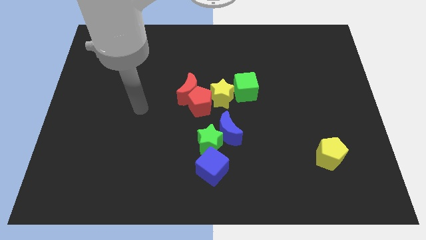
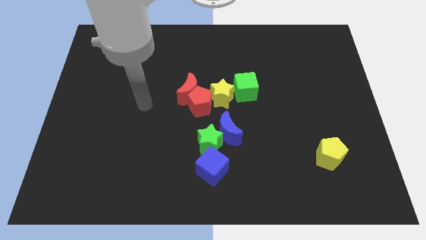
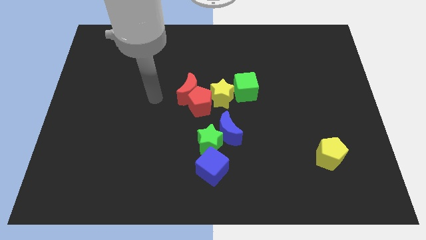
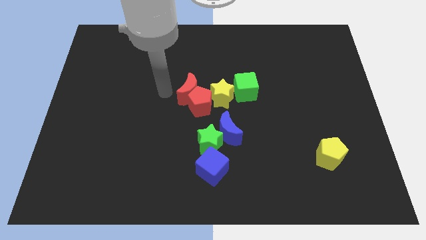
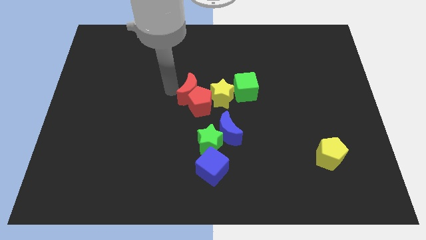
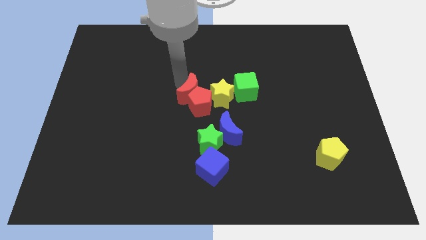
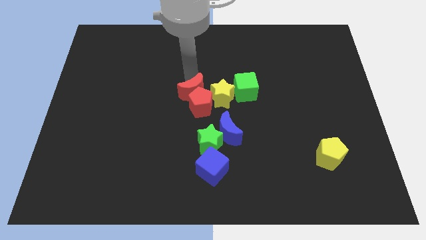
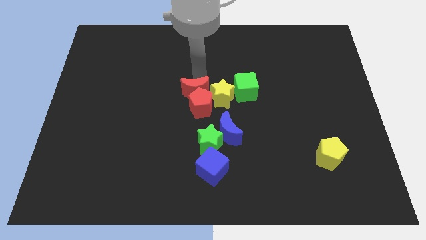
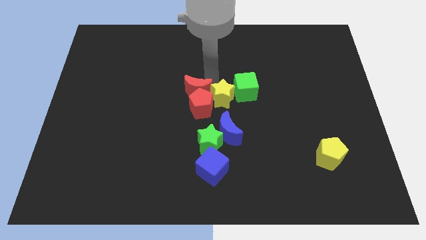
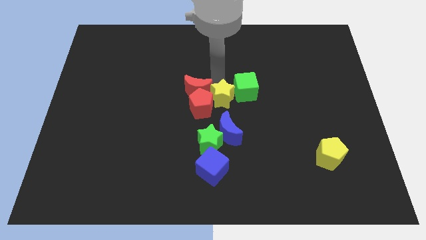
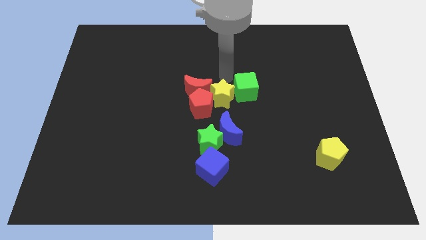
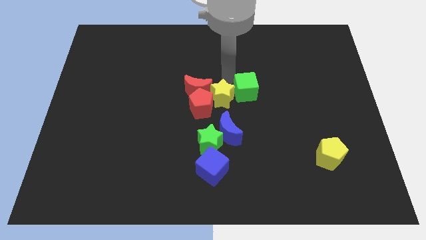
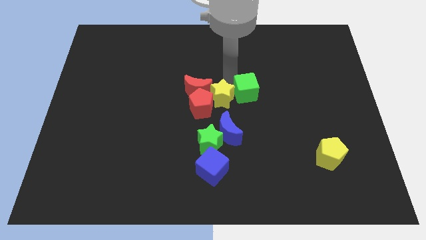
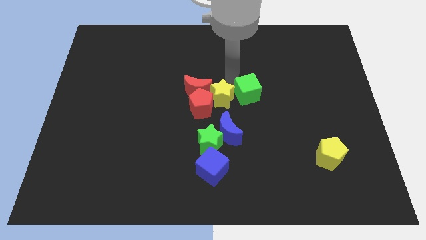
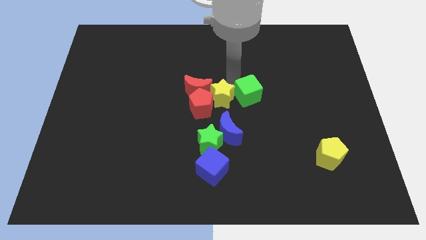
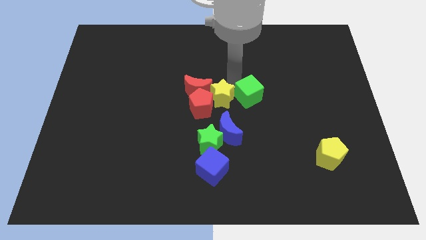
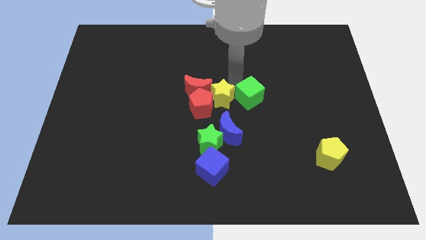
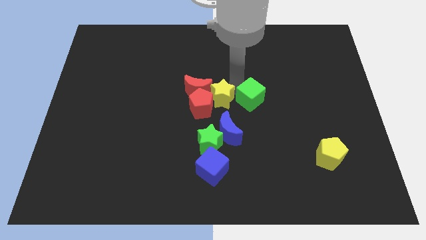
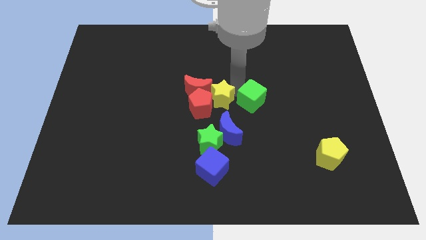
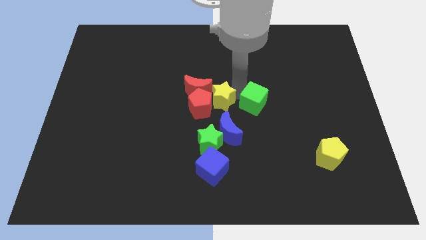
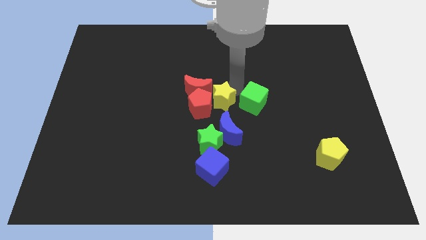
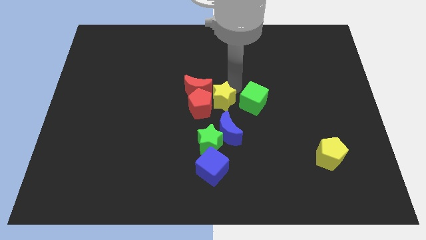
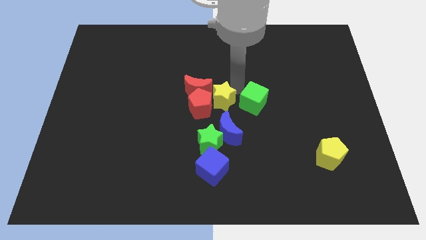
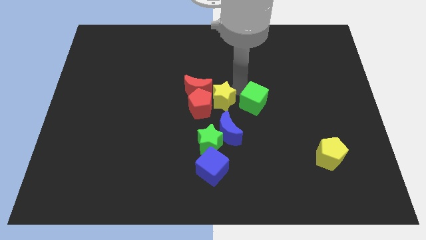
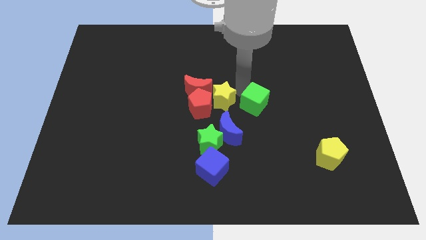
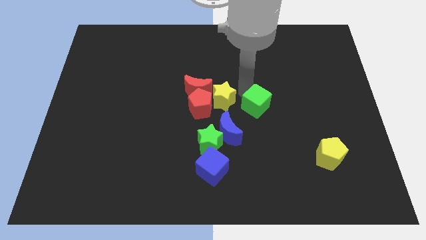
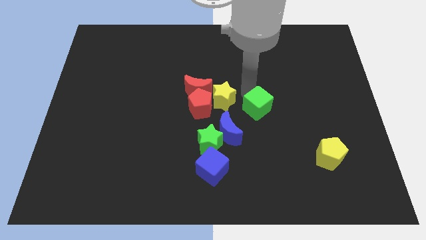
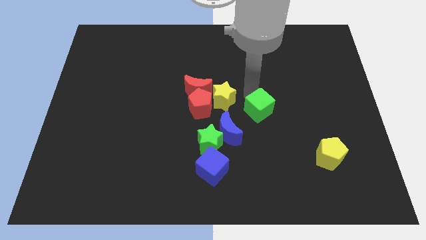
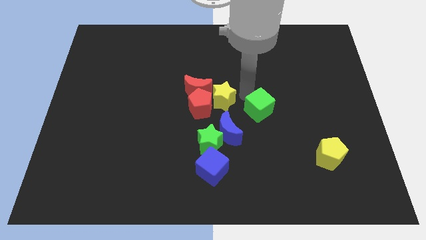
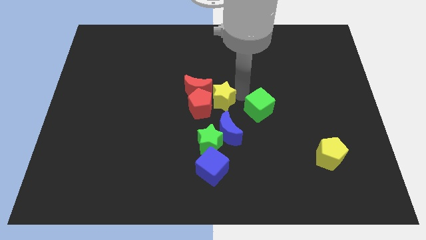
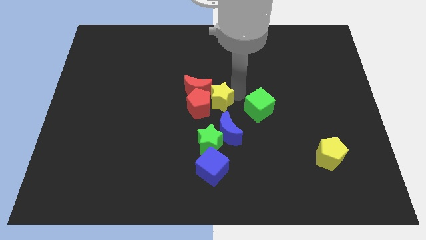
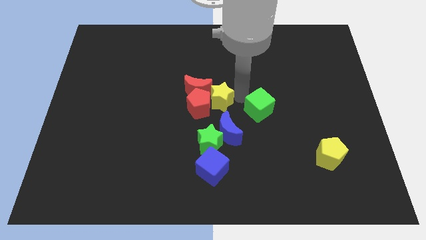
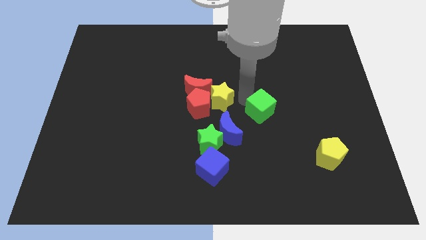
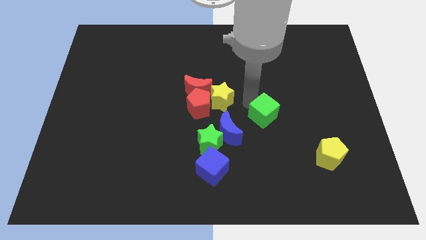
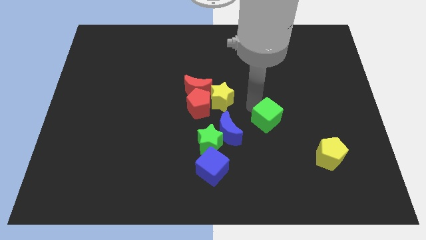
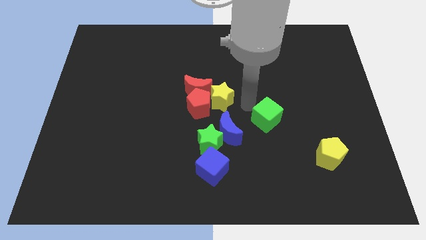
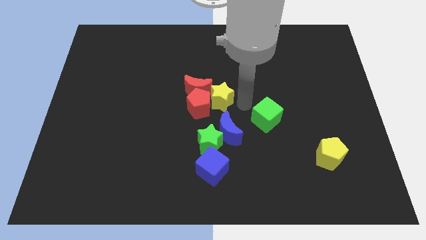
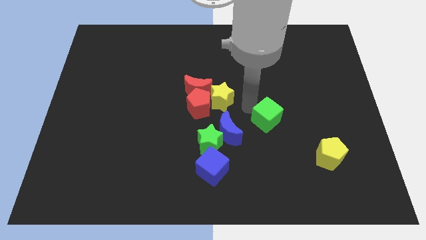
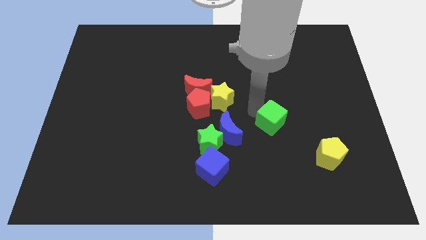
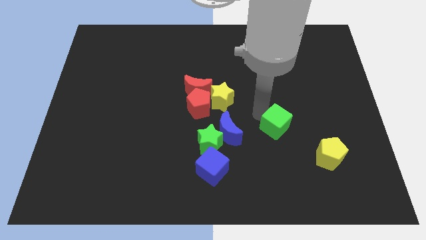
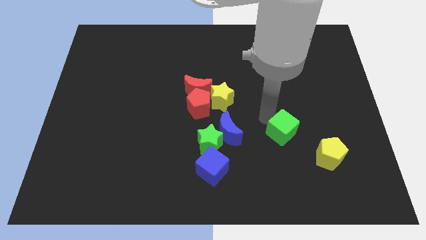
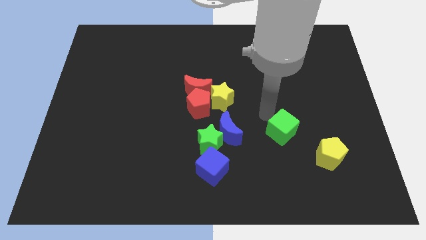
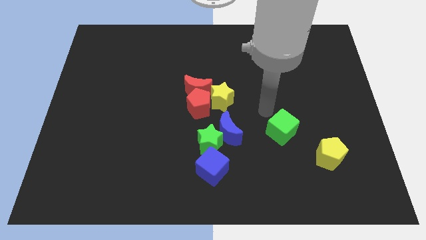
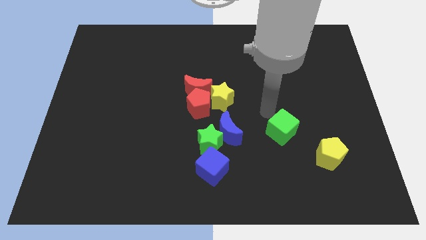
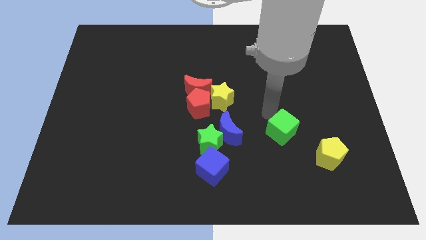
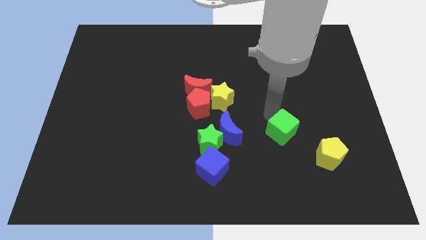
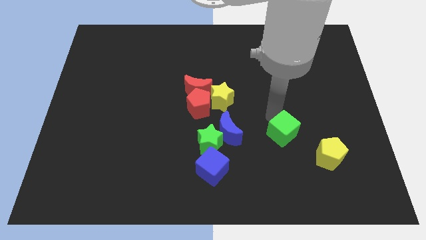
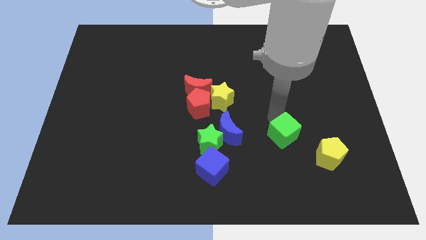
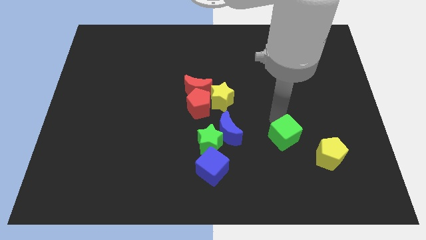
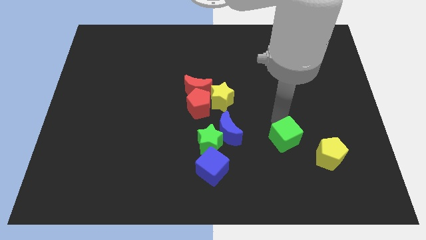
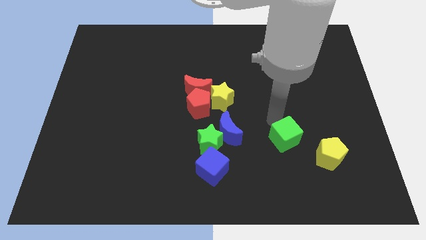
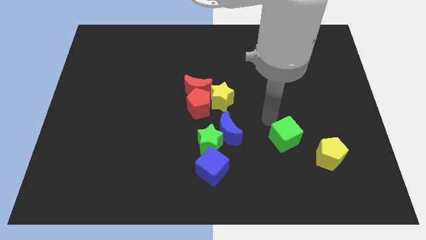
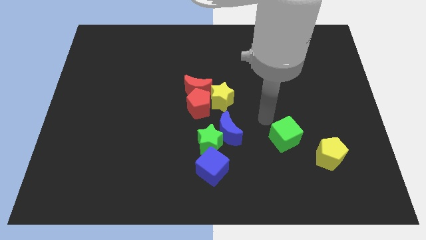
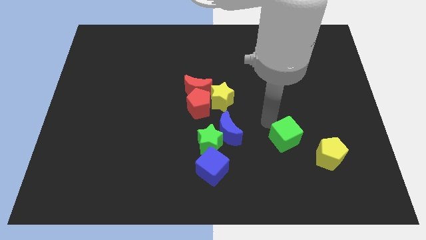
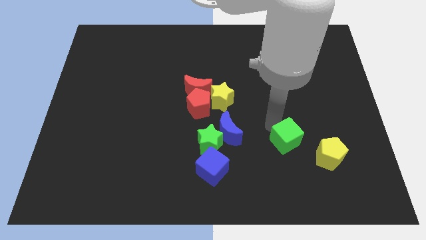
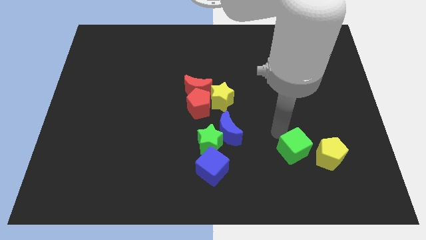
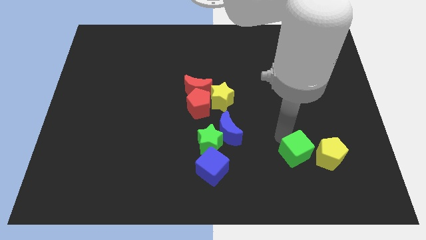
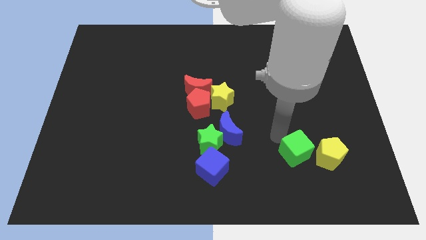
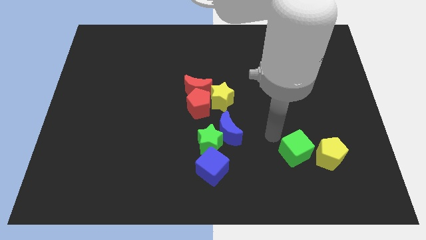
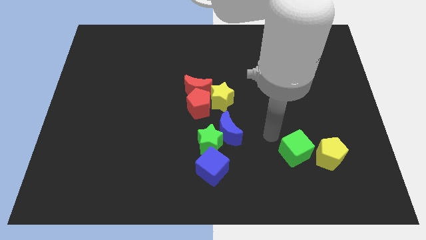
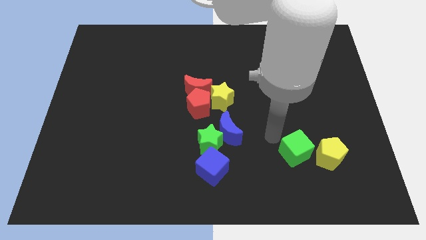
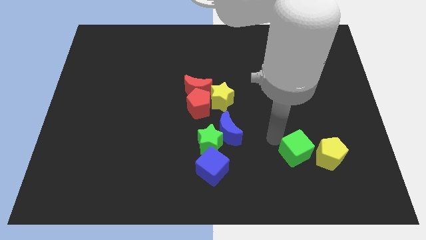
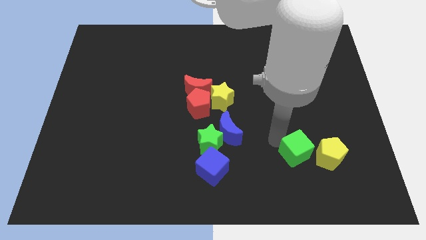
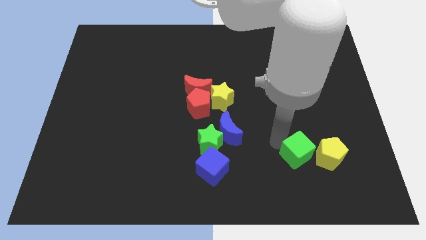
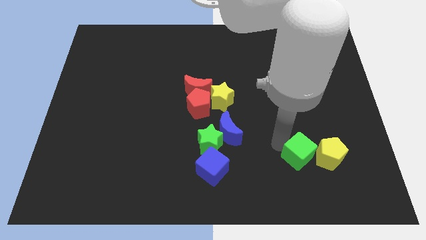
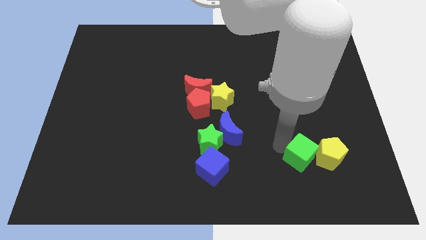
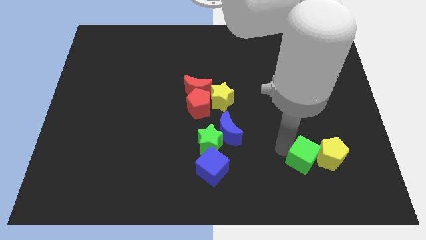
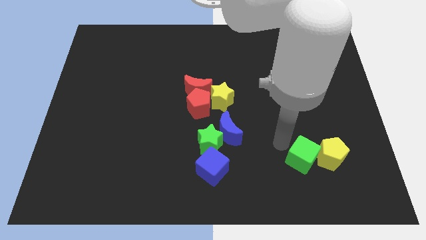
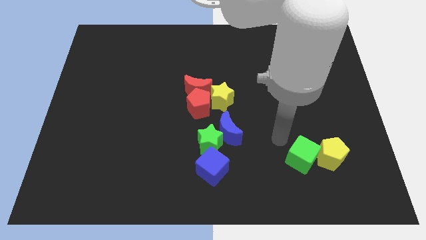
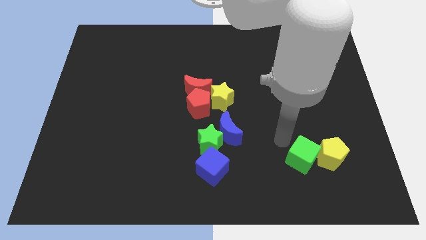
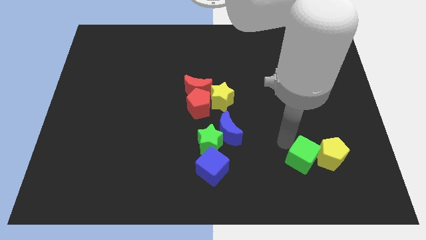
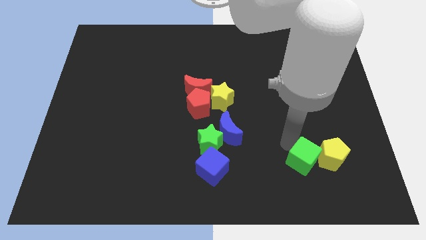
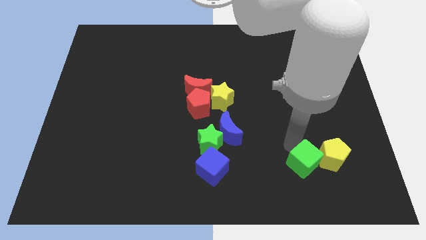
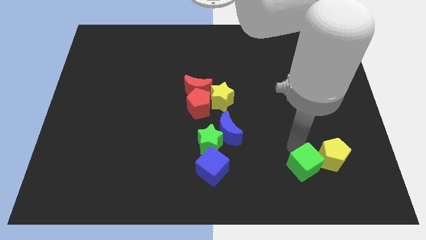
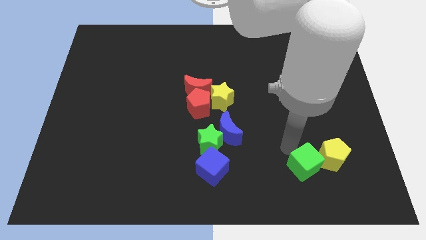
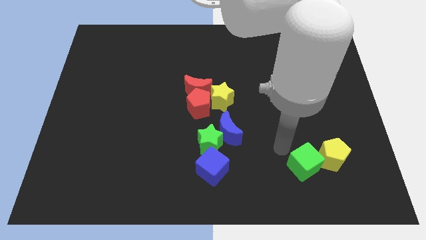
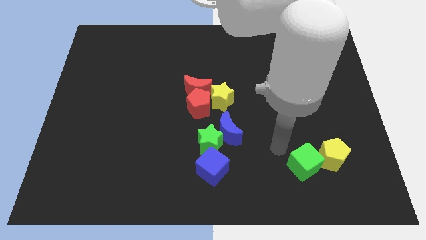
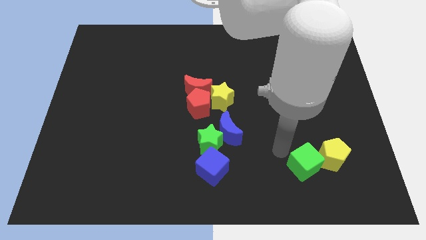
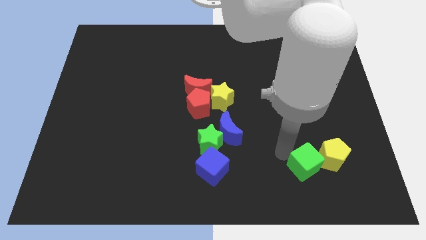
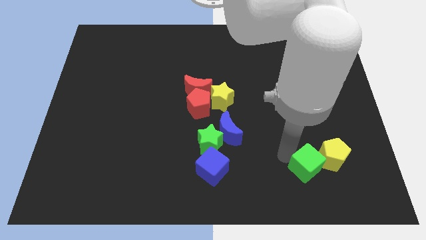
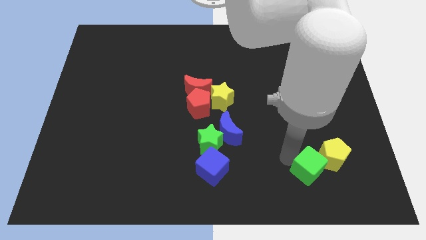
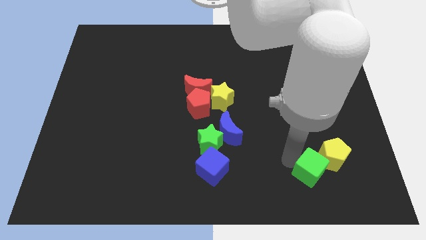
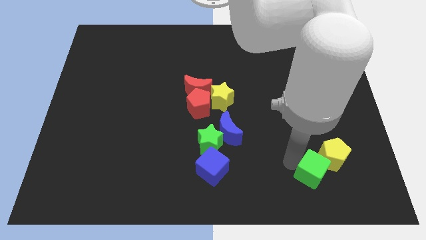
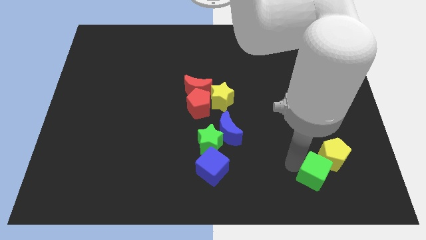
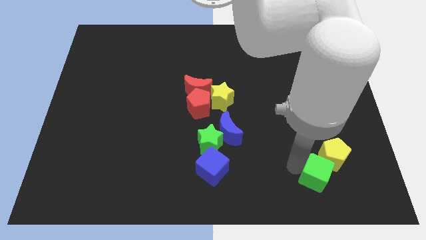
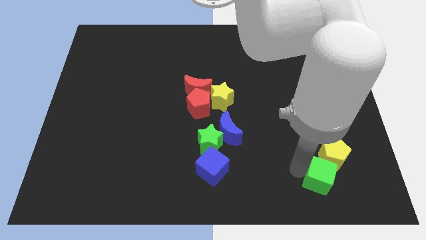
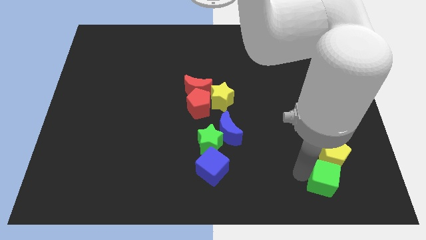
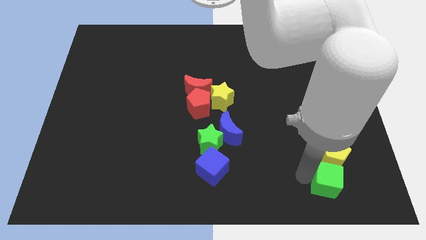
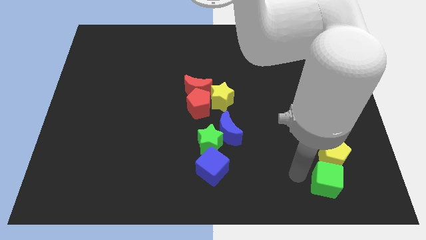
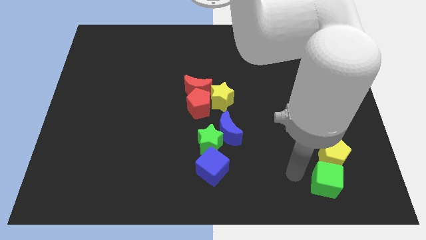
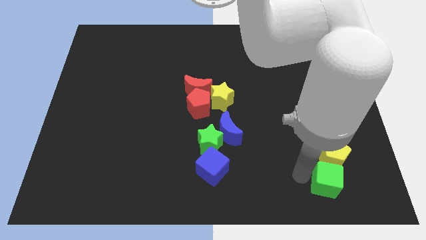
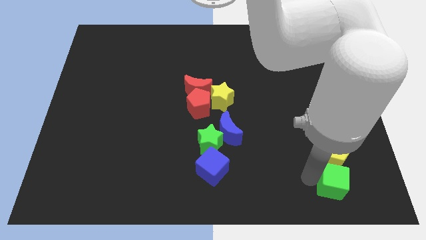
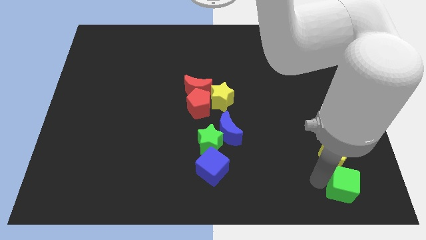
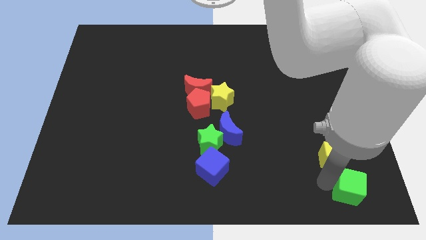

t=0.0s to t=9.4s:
slide the green cube to the bottom right corner
